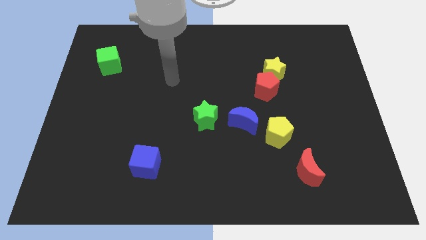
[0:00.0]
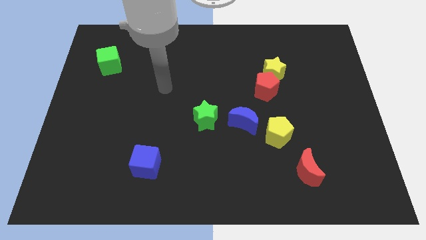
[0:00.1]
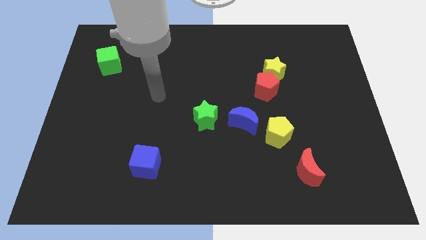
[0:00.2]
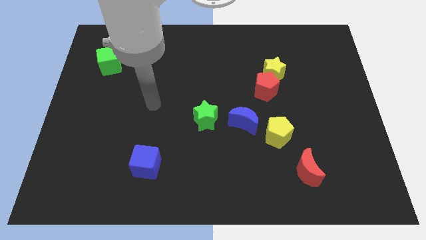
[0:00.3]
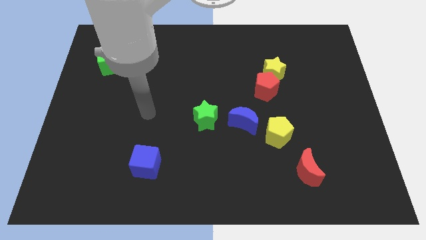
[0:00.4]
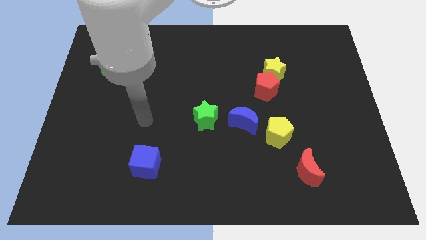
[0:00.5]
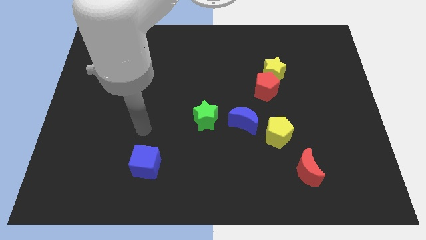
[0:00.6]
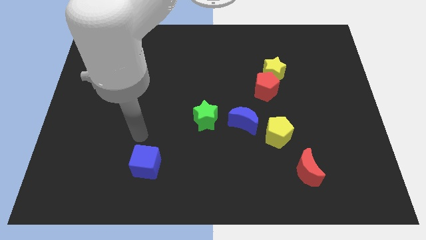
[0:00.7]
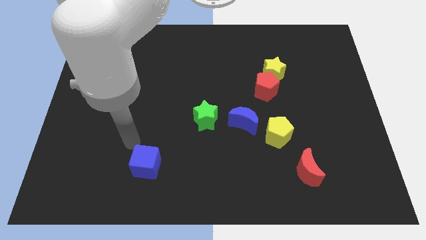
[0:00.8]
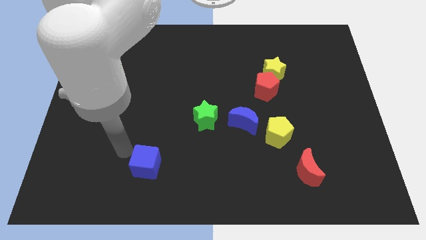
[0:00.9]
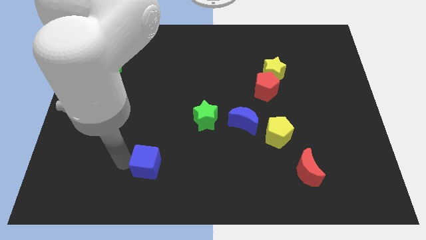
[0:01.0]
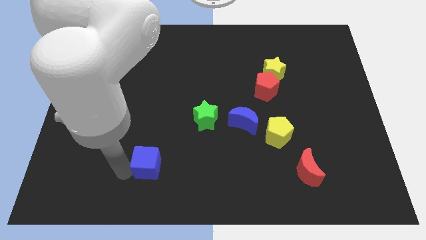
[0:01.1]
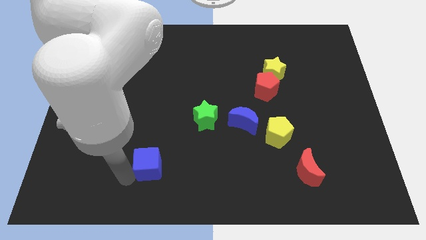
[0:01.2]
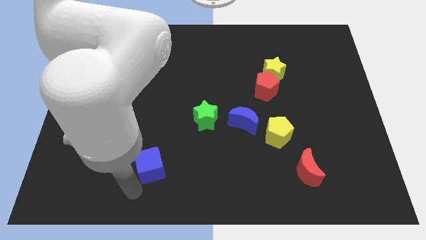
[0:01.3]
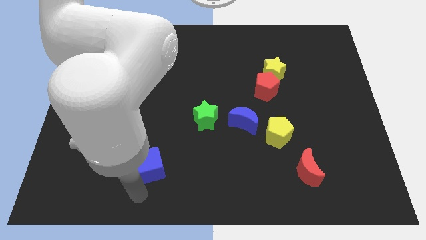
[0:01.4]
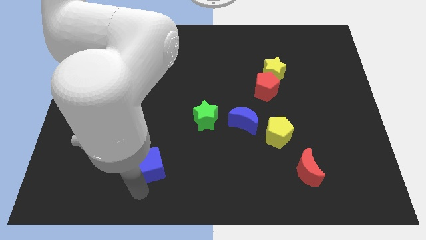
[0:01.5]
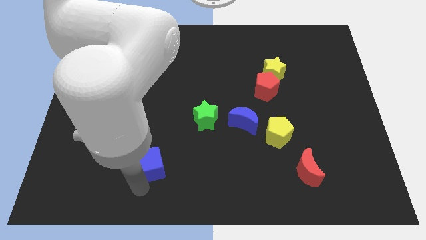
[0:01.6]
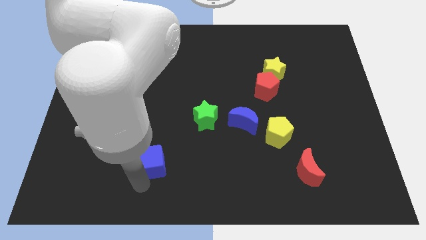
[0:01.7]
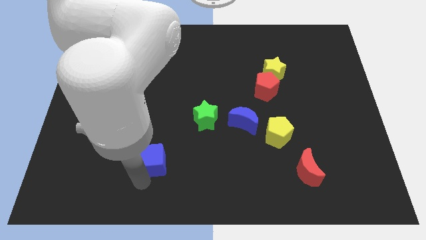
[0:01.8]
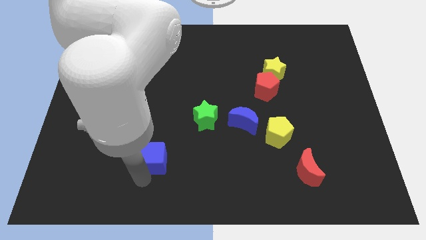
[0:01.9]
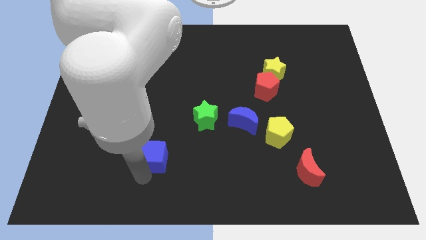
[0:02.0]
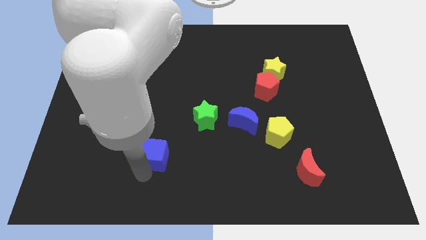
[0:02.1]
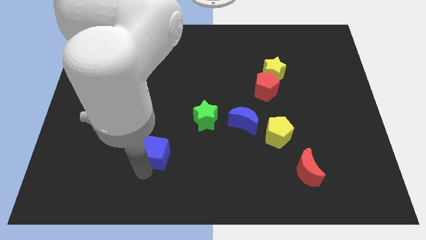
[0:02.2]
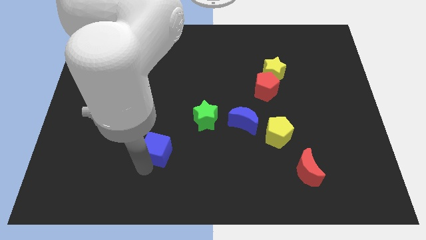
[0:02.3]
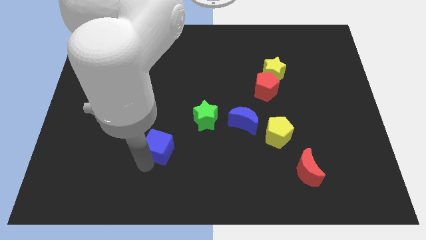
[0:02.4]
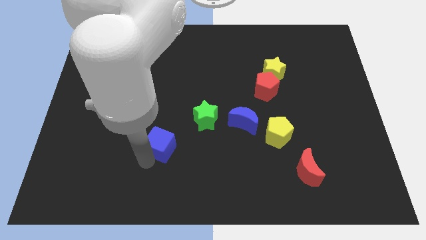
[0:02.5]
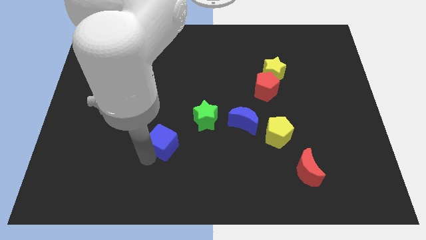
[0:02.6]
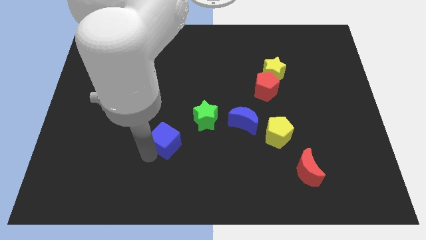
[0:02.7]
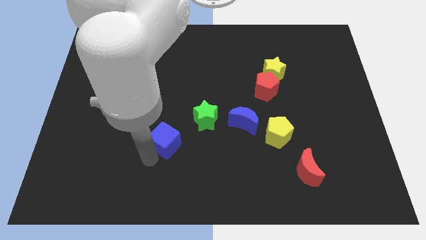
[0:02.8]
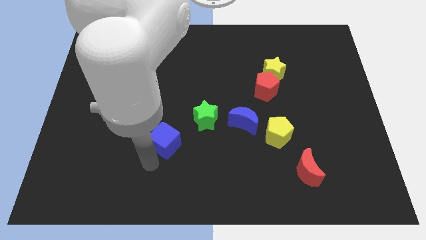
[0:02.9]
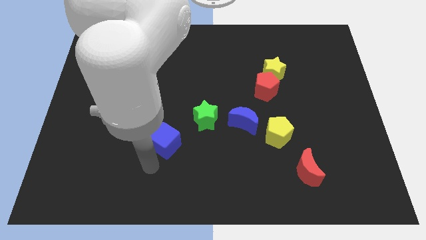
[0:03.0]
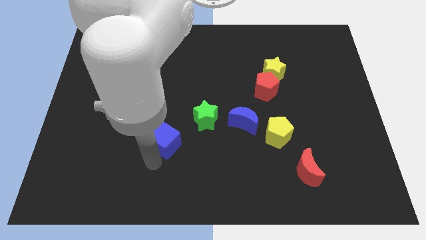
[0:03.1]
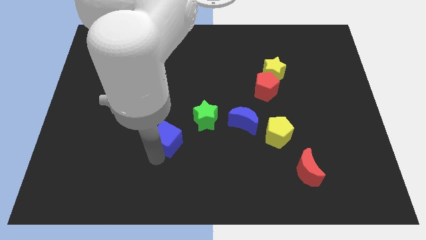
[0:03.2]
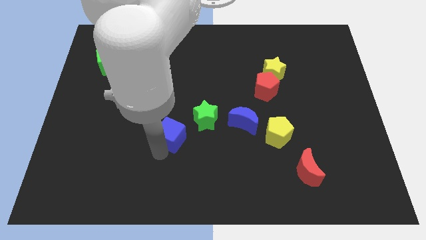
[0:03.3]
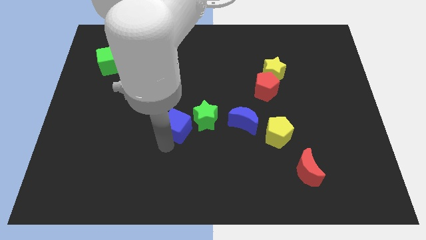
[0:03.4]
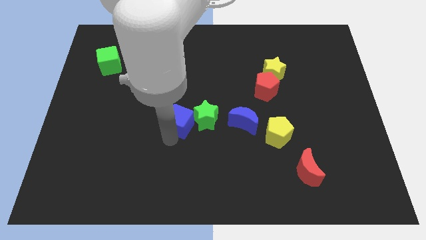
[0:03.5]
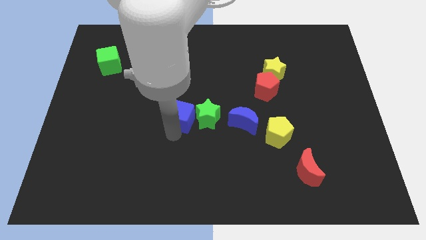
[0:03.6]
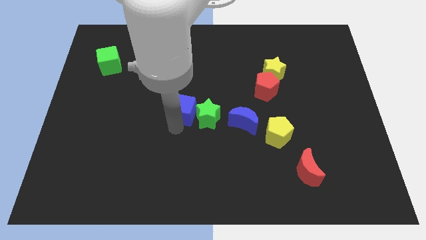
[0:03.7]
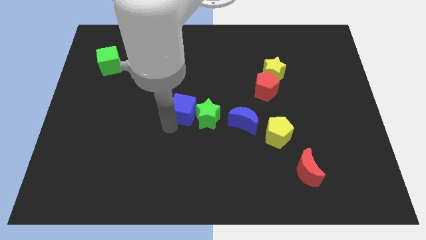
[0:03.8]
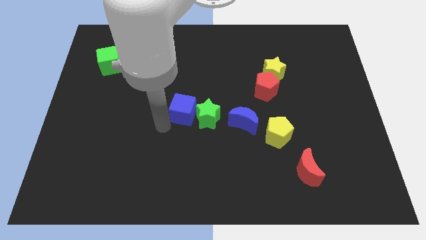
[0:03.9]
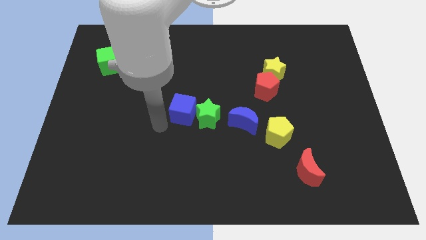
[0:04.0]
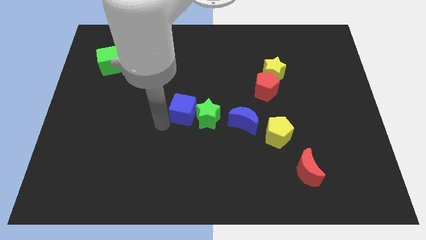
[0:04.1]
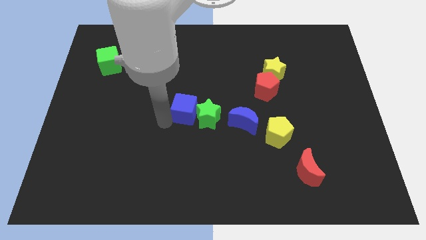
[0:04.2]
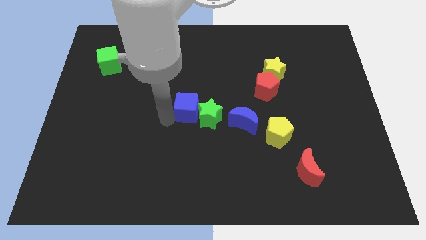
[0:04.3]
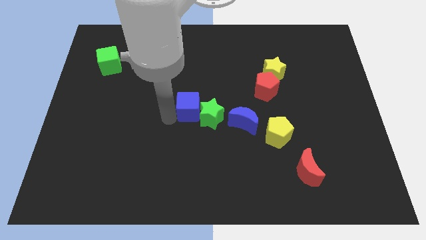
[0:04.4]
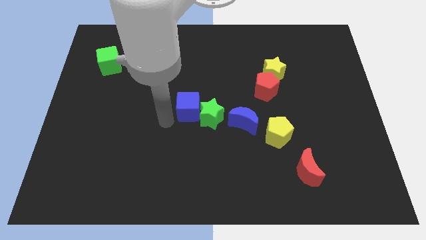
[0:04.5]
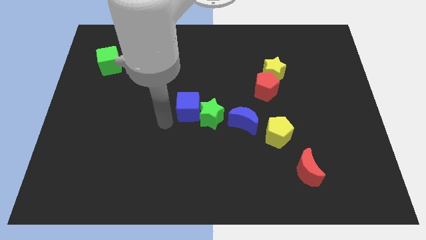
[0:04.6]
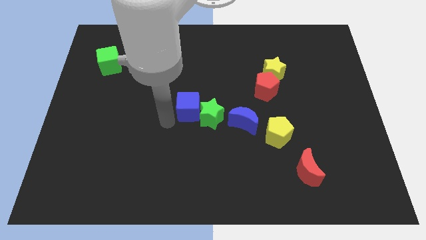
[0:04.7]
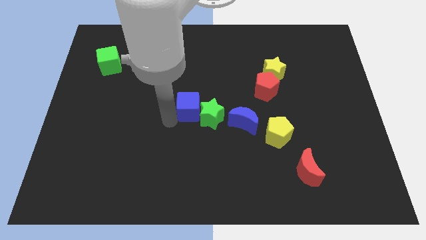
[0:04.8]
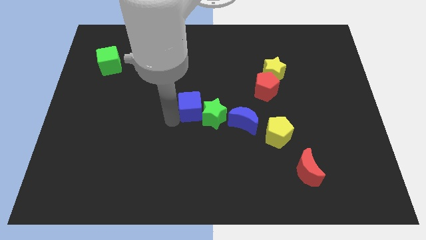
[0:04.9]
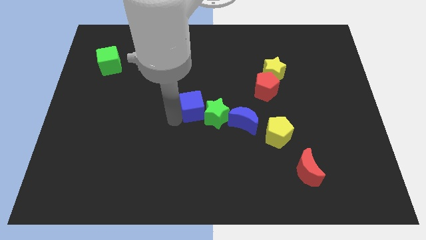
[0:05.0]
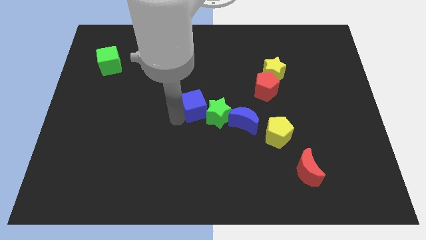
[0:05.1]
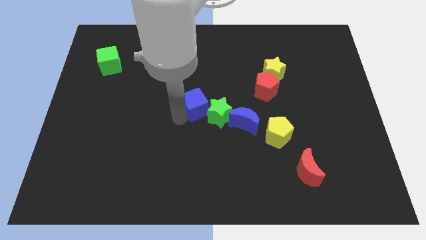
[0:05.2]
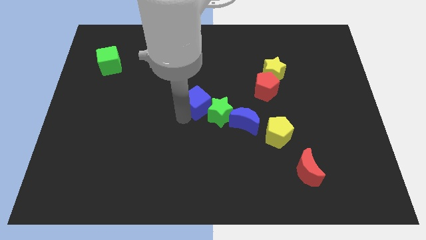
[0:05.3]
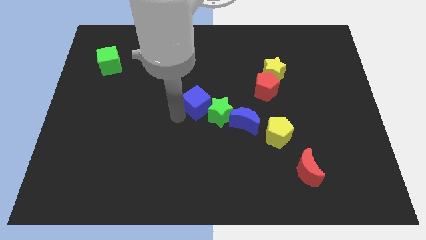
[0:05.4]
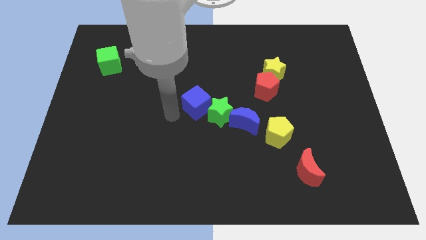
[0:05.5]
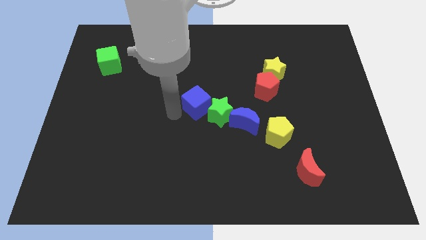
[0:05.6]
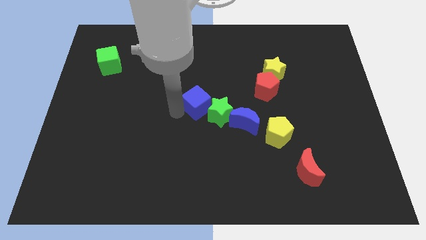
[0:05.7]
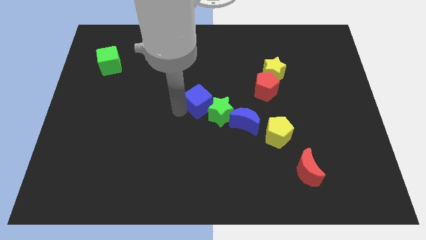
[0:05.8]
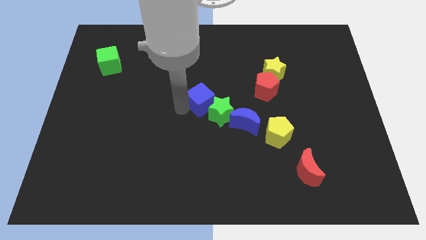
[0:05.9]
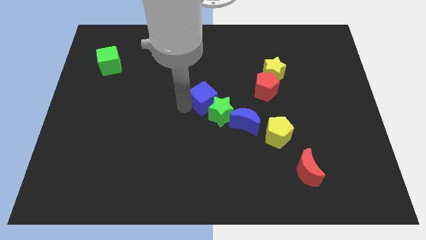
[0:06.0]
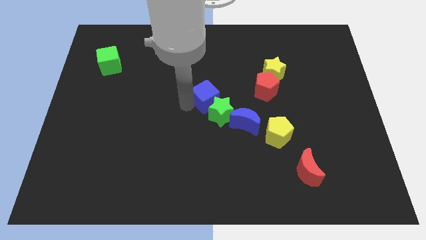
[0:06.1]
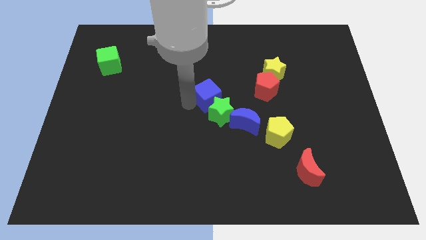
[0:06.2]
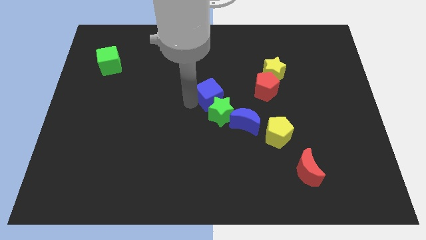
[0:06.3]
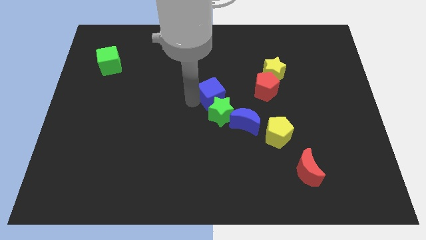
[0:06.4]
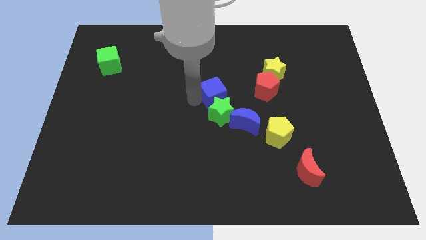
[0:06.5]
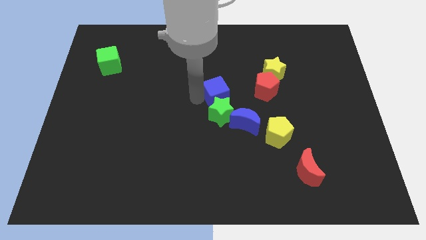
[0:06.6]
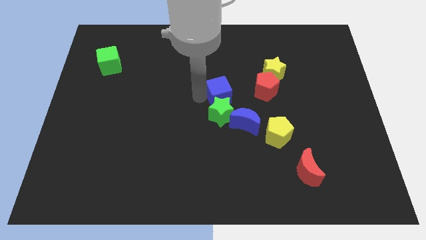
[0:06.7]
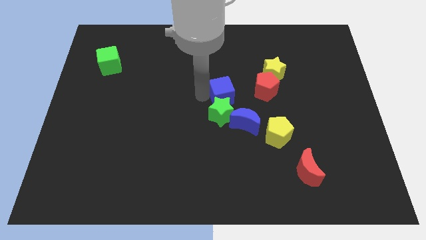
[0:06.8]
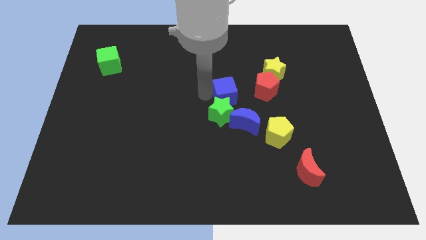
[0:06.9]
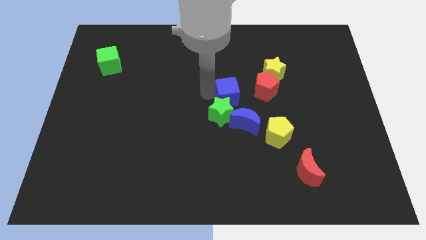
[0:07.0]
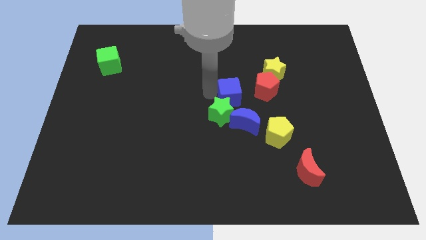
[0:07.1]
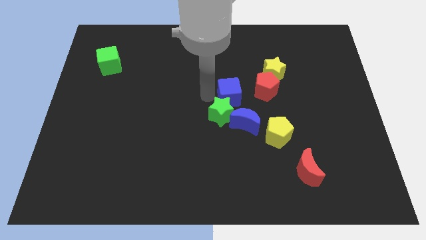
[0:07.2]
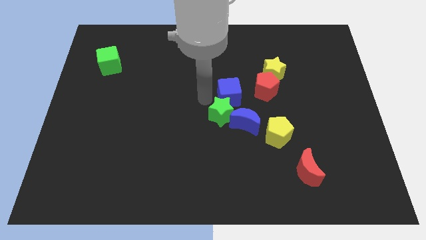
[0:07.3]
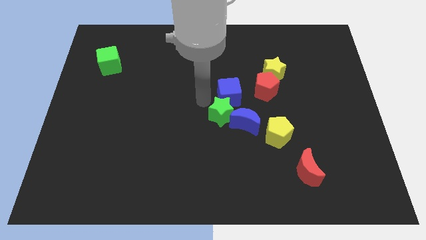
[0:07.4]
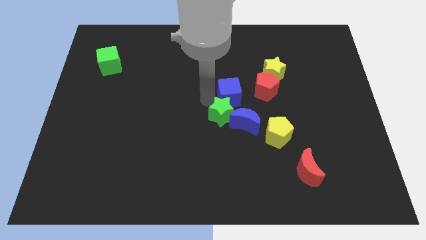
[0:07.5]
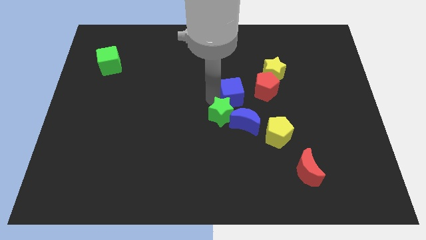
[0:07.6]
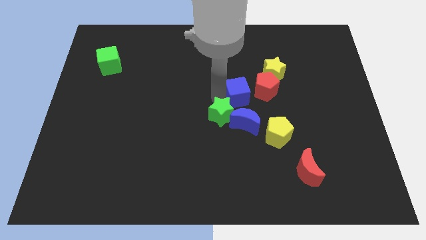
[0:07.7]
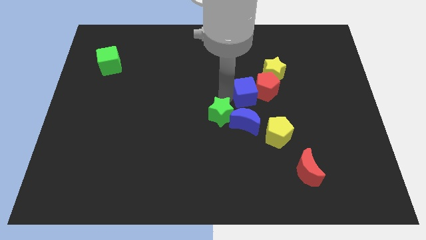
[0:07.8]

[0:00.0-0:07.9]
move the blue cube to the red pentagon
